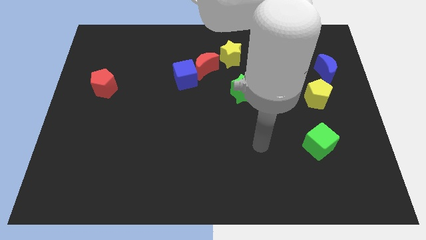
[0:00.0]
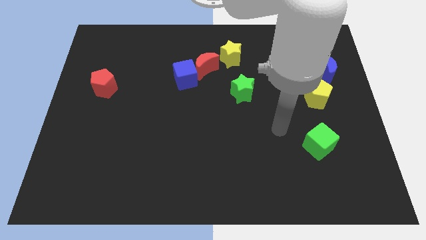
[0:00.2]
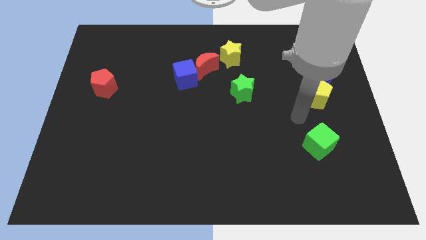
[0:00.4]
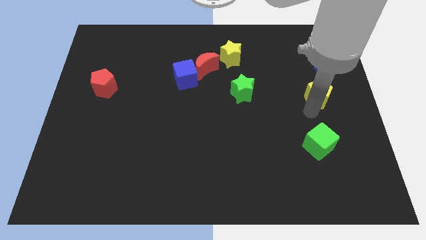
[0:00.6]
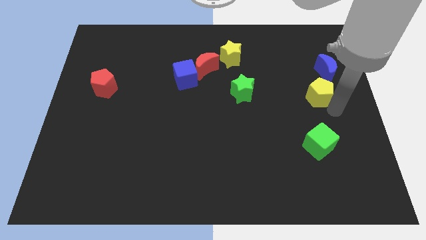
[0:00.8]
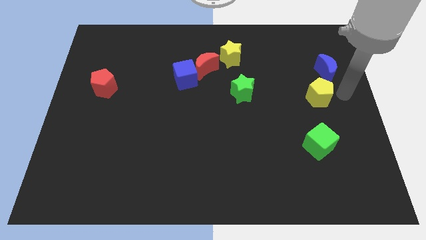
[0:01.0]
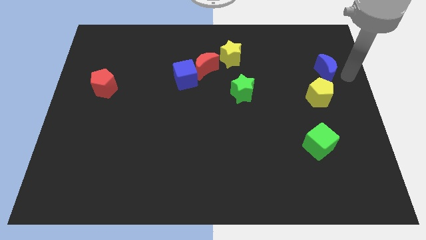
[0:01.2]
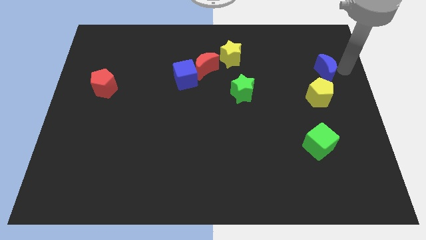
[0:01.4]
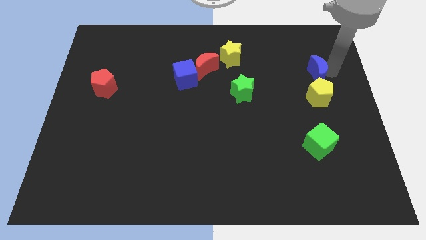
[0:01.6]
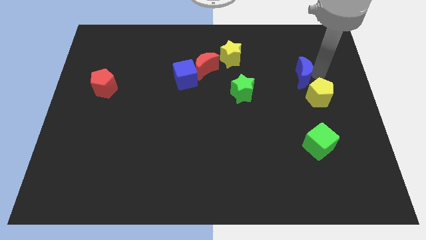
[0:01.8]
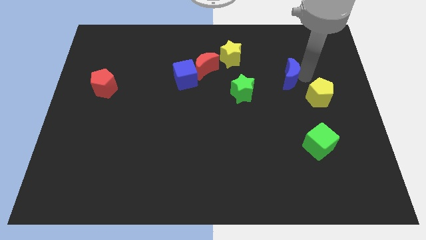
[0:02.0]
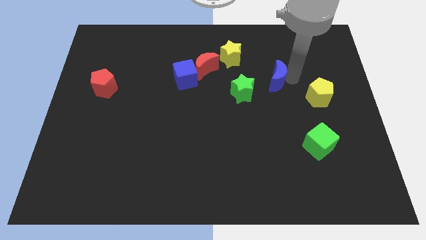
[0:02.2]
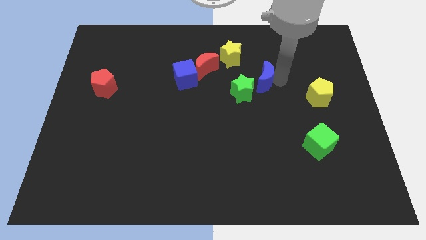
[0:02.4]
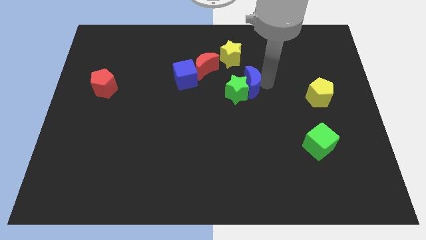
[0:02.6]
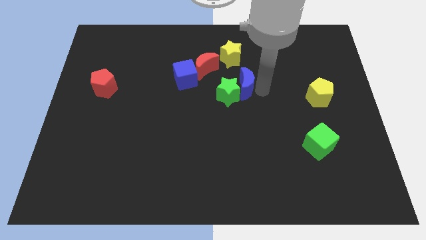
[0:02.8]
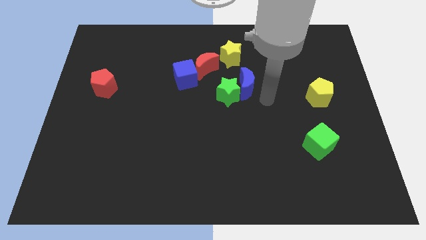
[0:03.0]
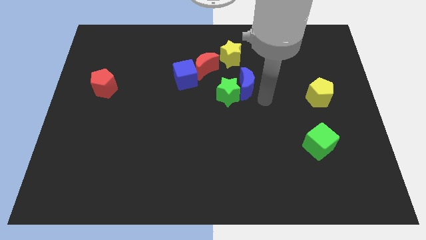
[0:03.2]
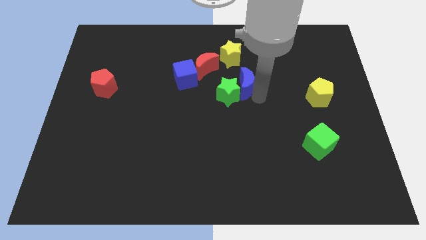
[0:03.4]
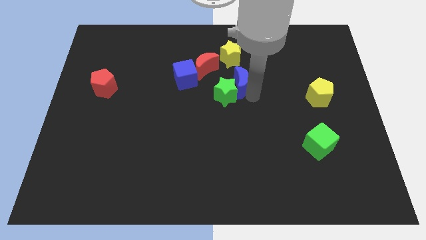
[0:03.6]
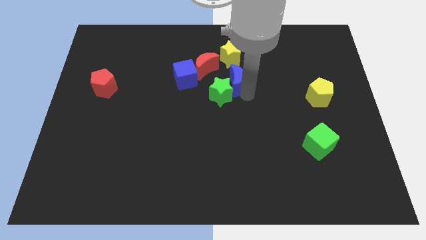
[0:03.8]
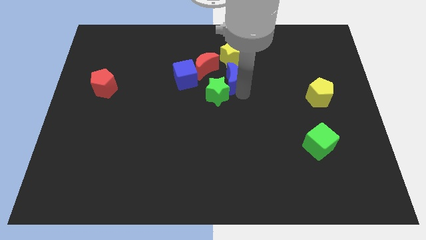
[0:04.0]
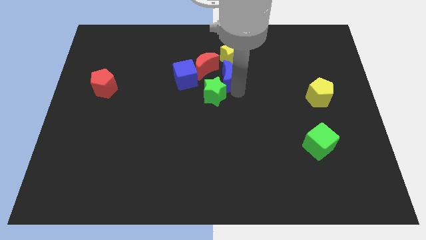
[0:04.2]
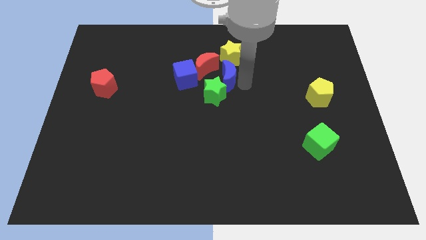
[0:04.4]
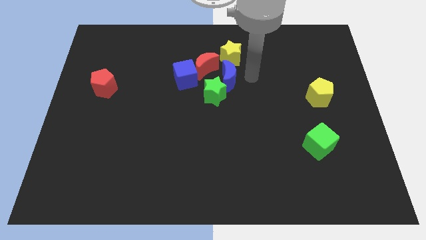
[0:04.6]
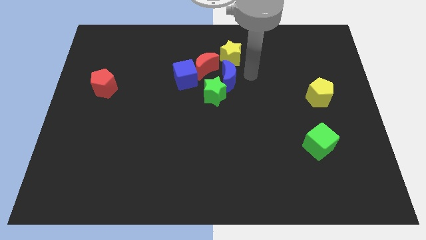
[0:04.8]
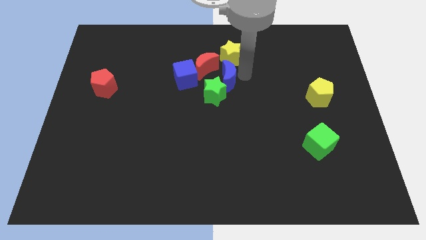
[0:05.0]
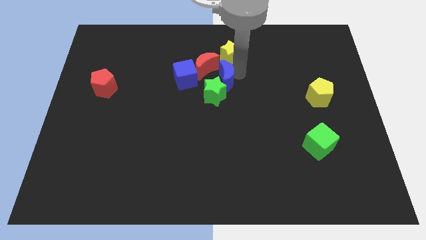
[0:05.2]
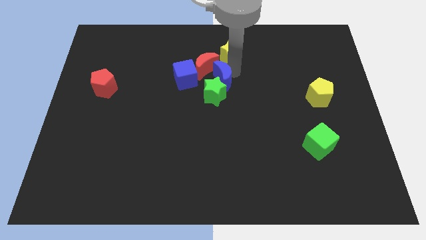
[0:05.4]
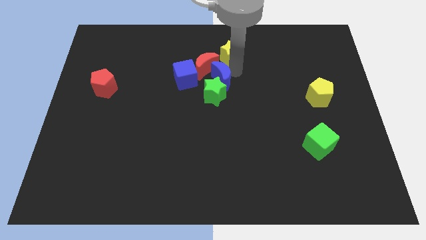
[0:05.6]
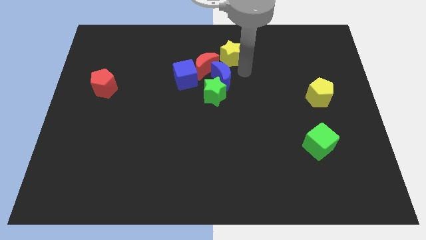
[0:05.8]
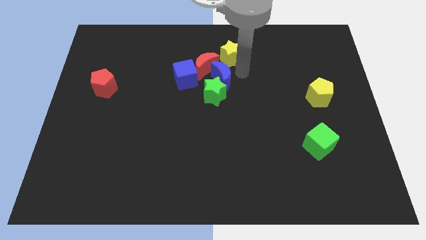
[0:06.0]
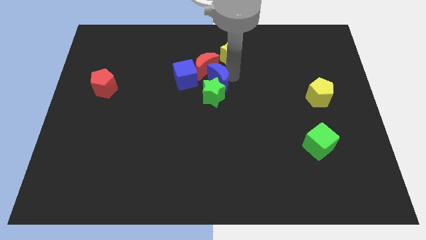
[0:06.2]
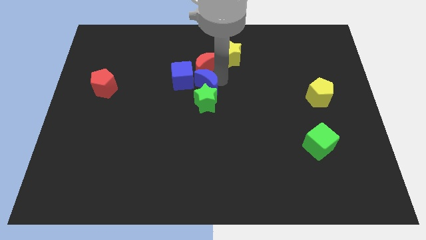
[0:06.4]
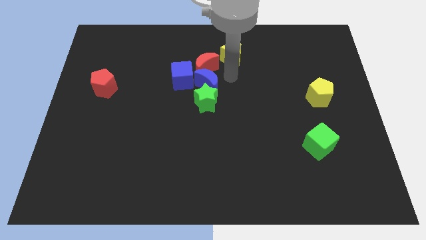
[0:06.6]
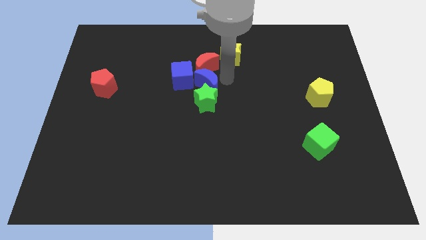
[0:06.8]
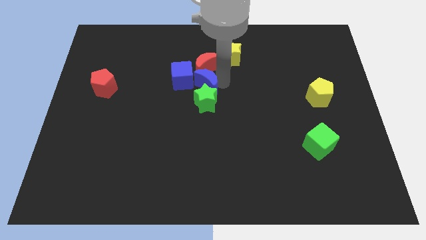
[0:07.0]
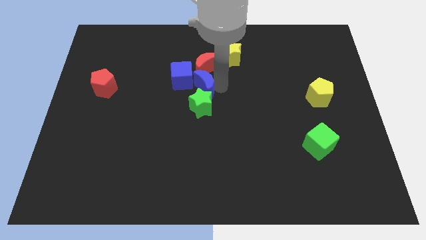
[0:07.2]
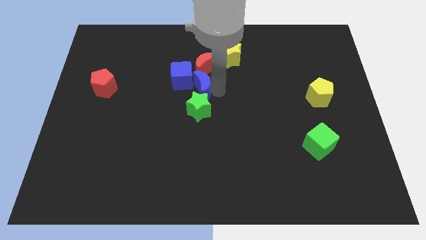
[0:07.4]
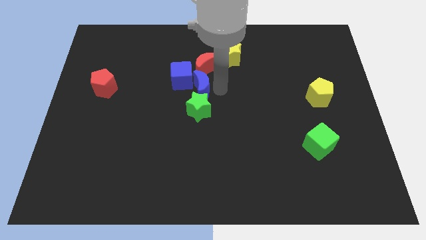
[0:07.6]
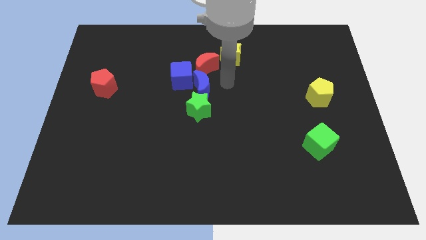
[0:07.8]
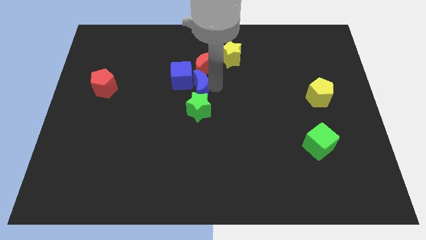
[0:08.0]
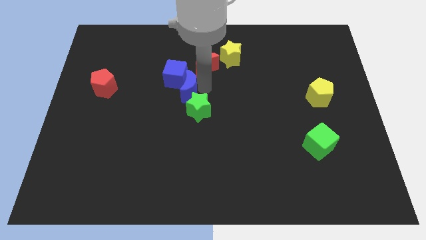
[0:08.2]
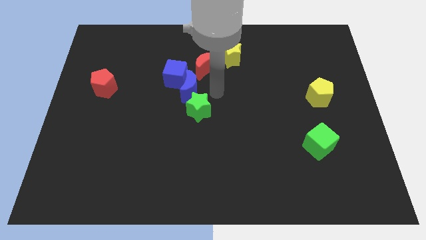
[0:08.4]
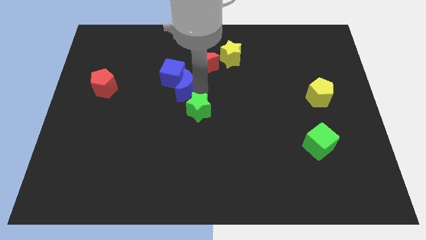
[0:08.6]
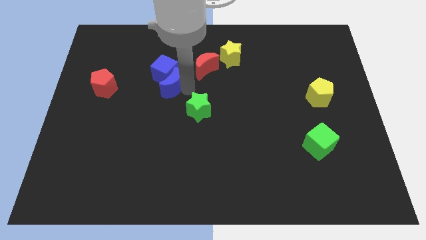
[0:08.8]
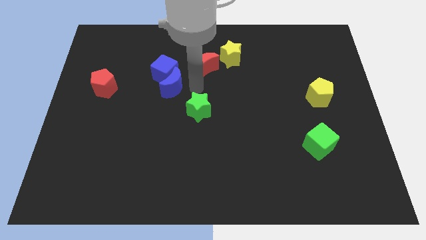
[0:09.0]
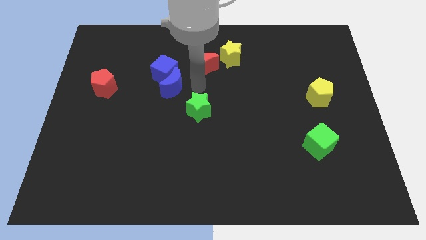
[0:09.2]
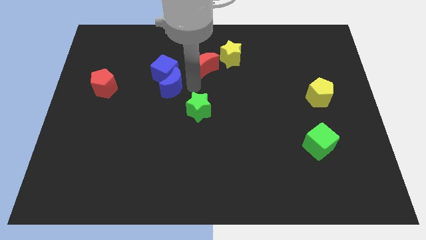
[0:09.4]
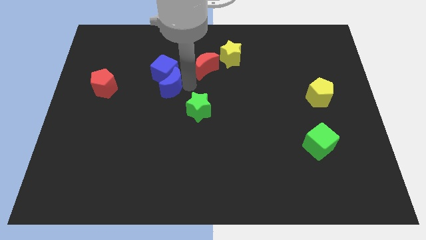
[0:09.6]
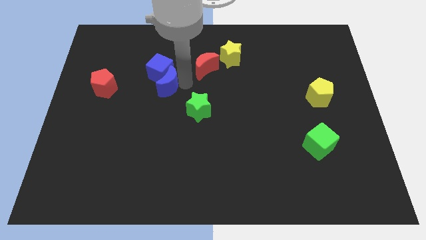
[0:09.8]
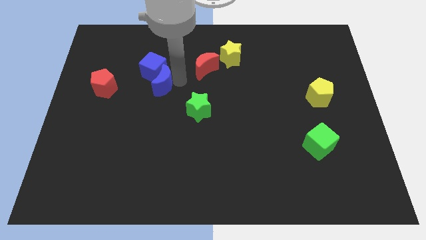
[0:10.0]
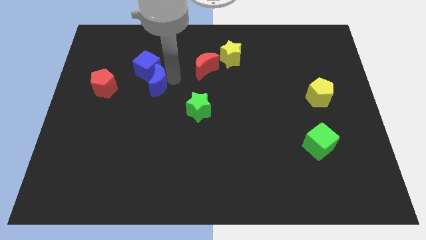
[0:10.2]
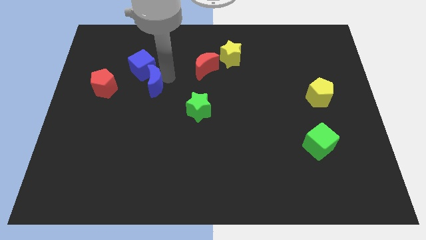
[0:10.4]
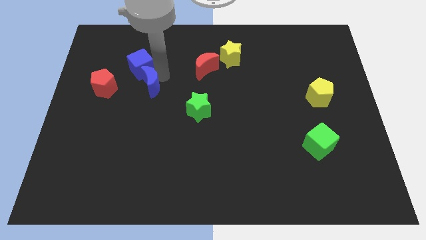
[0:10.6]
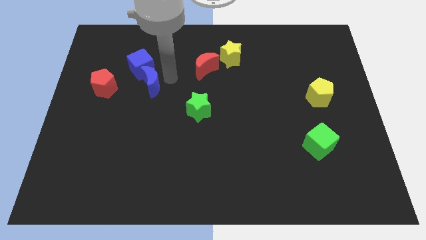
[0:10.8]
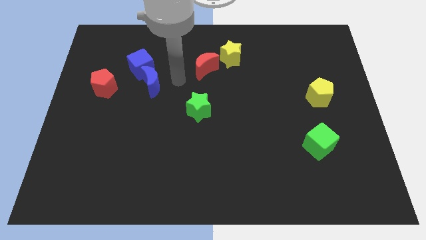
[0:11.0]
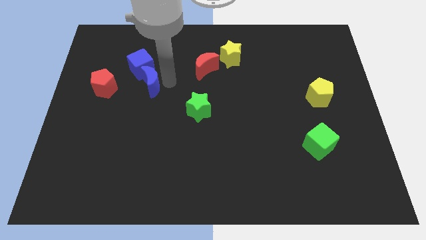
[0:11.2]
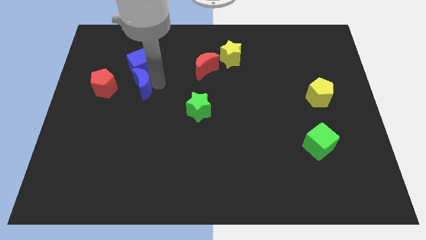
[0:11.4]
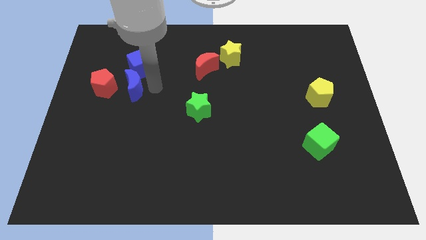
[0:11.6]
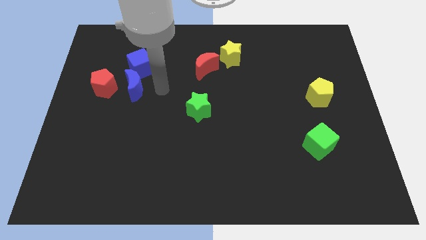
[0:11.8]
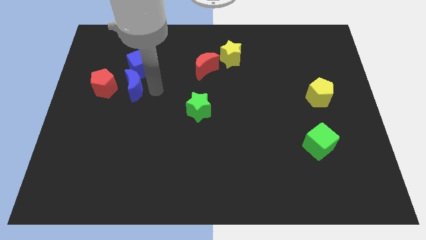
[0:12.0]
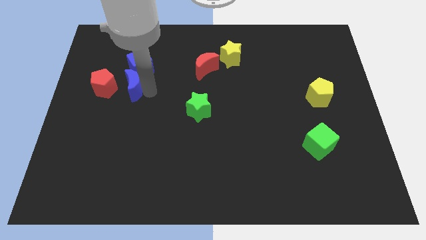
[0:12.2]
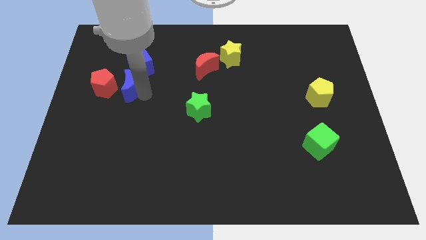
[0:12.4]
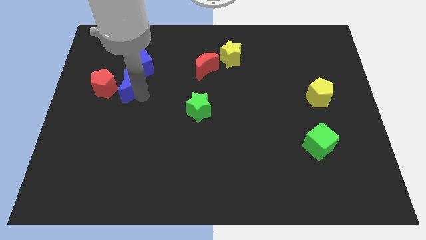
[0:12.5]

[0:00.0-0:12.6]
slide the blue moon next to the red pentagon

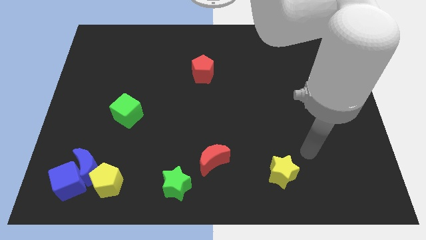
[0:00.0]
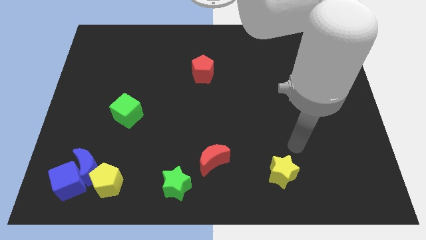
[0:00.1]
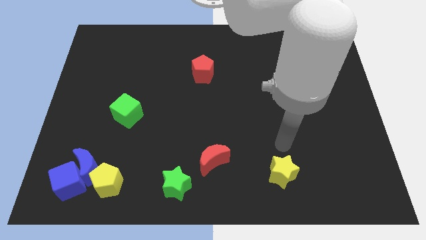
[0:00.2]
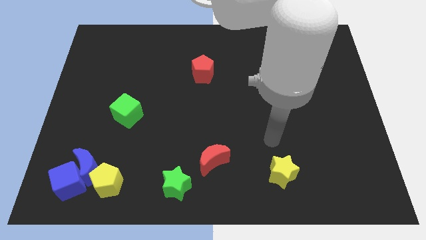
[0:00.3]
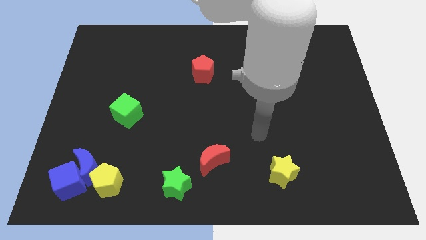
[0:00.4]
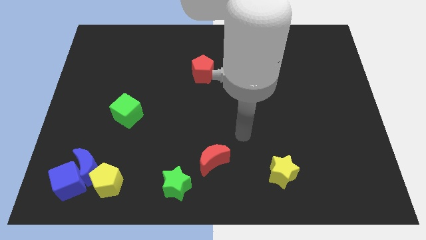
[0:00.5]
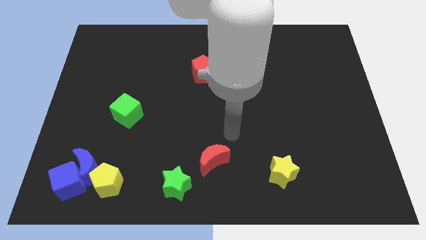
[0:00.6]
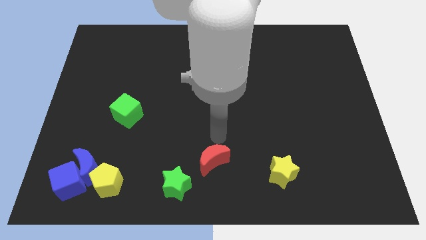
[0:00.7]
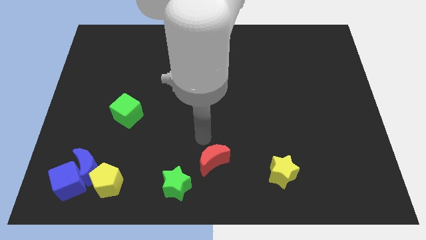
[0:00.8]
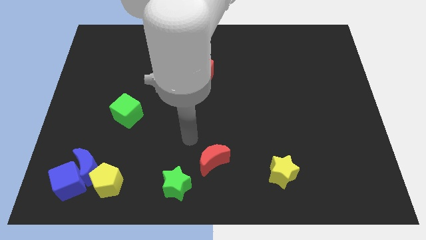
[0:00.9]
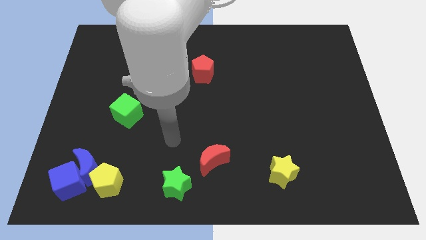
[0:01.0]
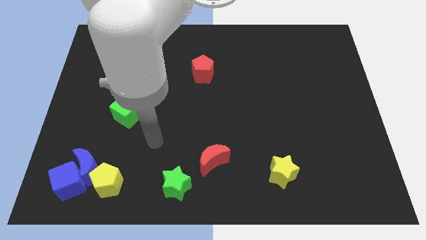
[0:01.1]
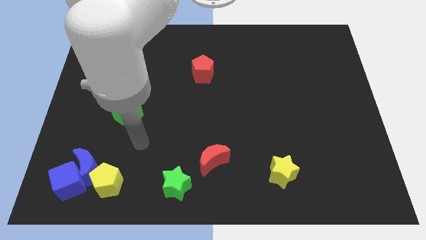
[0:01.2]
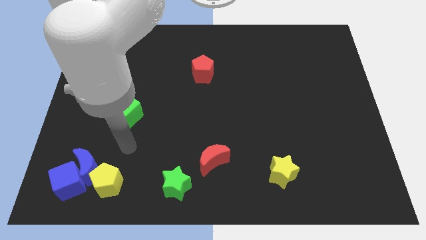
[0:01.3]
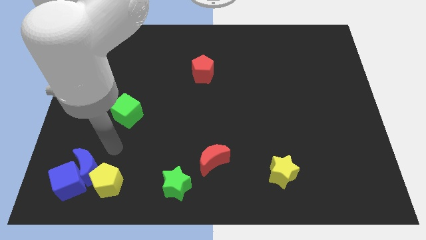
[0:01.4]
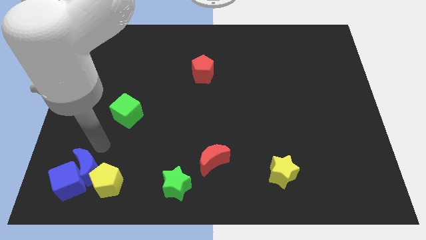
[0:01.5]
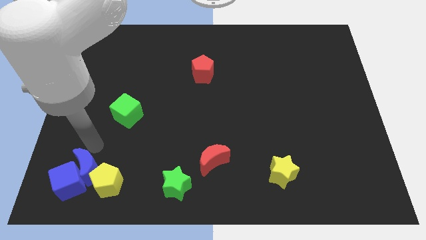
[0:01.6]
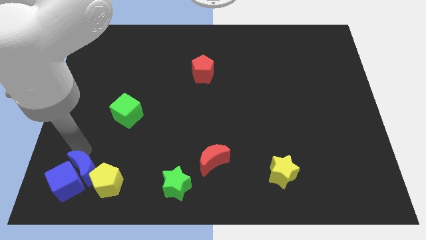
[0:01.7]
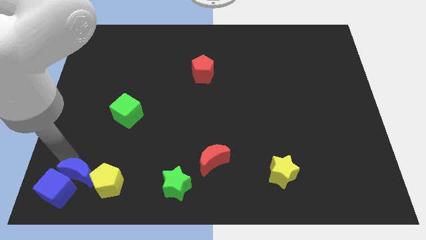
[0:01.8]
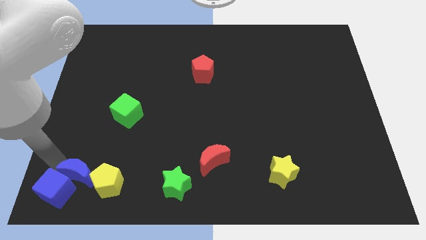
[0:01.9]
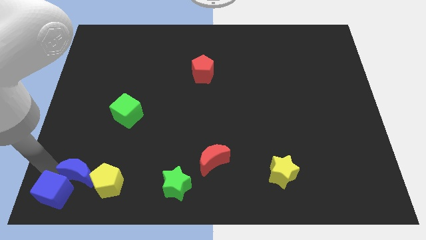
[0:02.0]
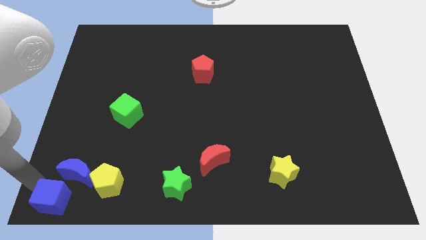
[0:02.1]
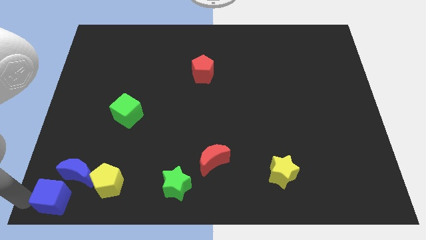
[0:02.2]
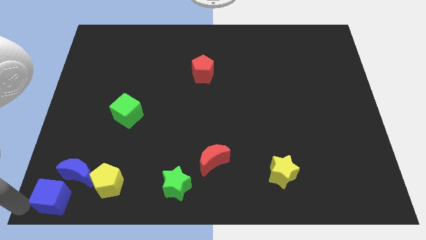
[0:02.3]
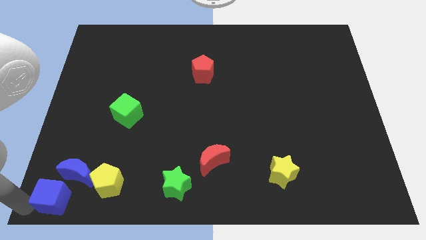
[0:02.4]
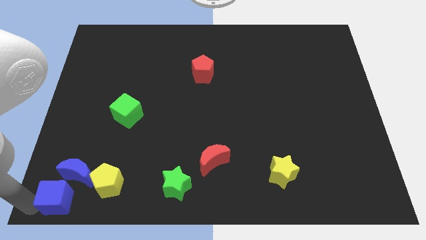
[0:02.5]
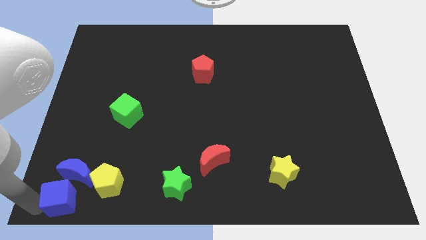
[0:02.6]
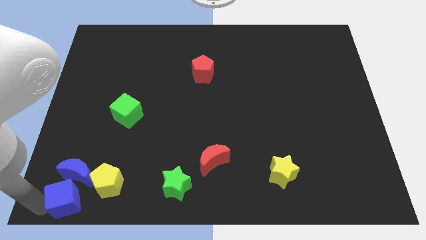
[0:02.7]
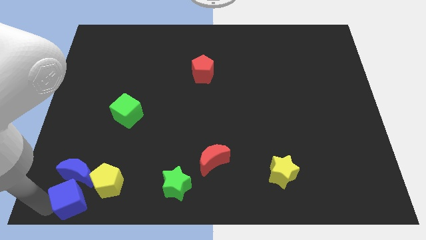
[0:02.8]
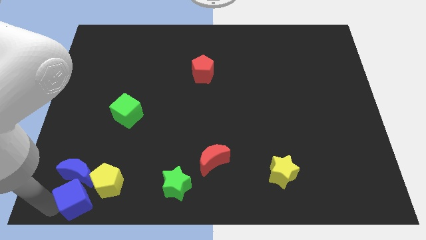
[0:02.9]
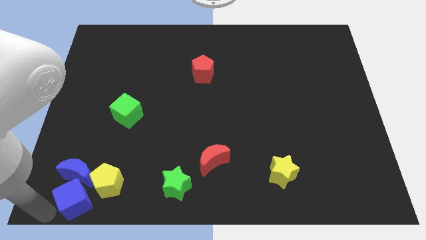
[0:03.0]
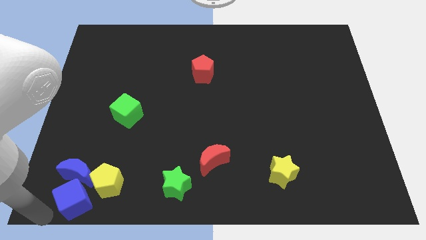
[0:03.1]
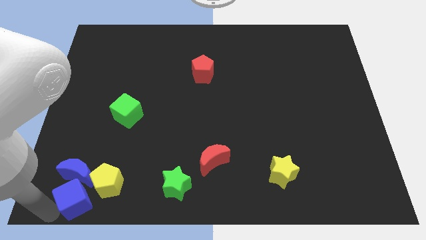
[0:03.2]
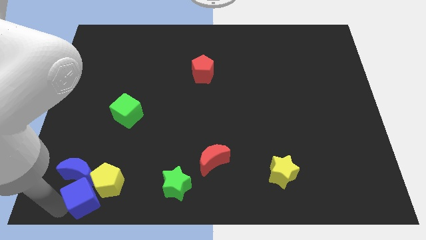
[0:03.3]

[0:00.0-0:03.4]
push the blue cube towards the yellow pentagon
